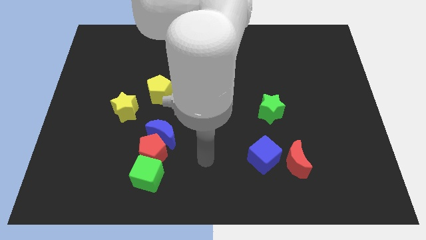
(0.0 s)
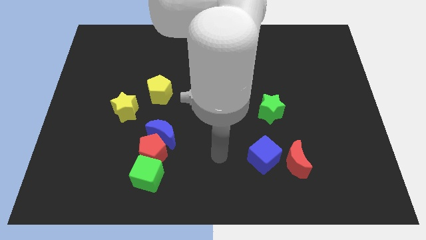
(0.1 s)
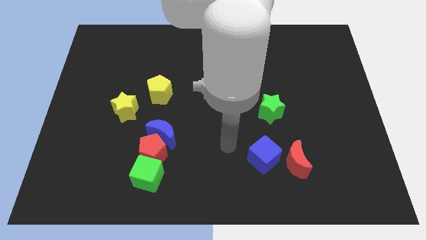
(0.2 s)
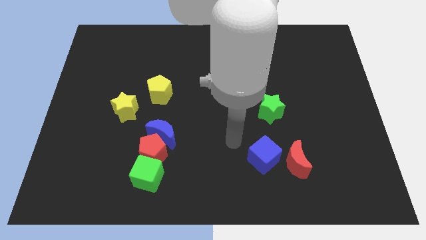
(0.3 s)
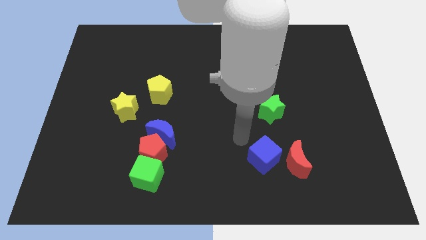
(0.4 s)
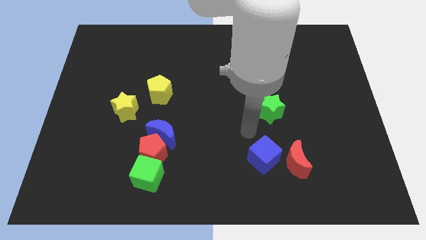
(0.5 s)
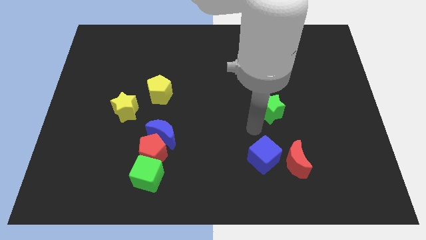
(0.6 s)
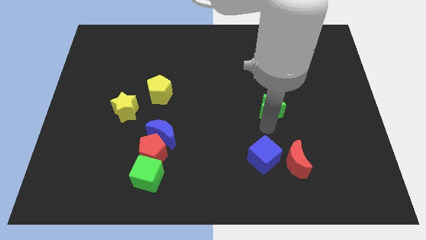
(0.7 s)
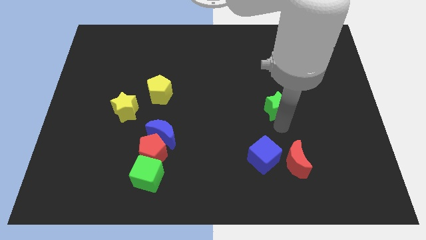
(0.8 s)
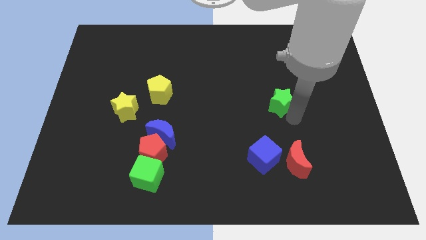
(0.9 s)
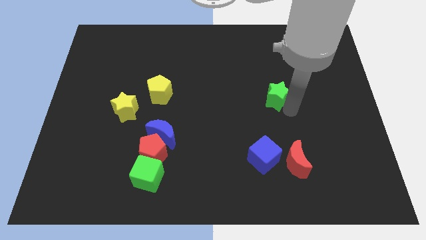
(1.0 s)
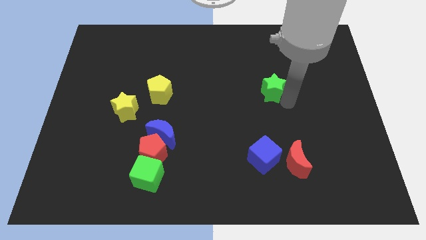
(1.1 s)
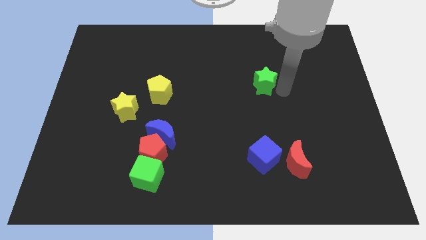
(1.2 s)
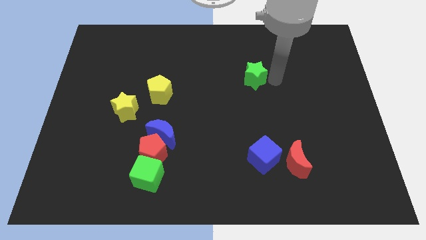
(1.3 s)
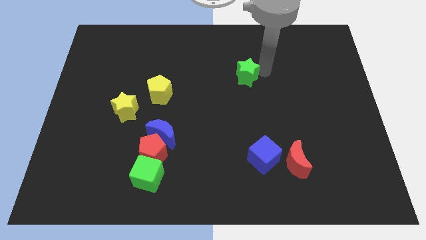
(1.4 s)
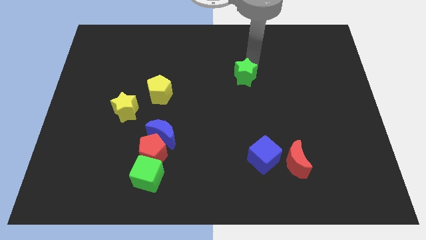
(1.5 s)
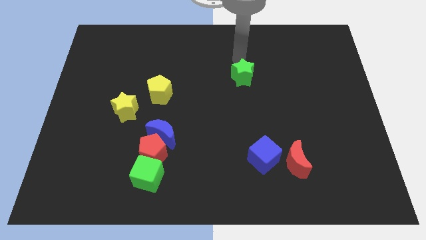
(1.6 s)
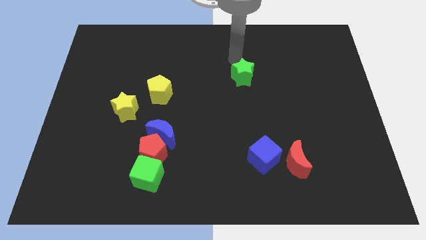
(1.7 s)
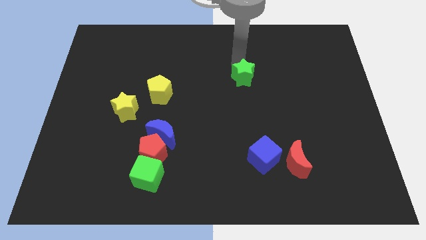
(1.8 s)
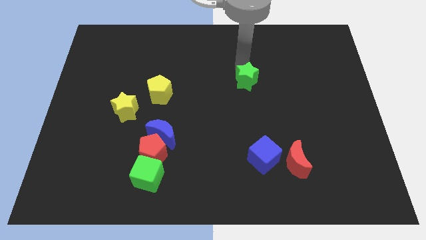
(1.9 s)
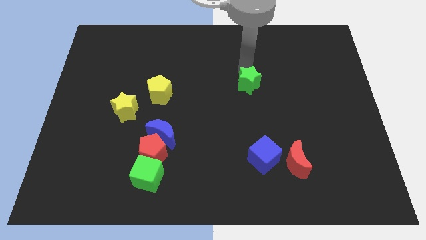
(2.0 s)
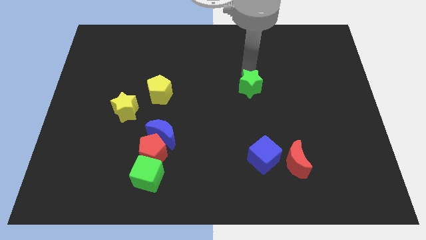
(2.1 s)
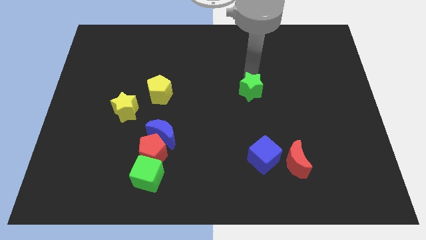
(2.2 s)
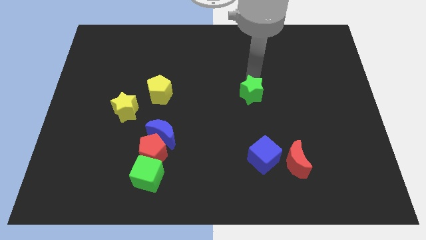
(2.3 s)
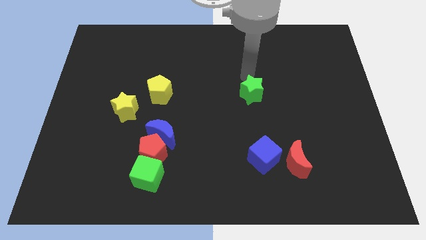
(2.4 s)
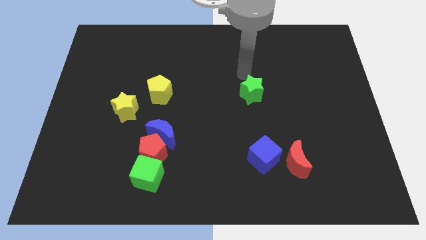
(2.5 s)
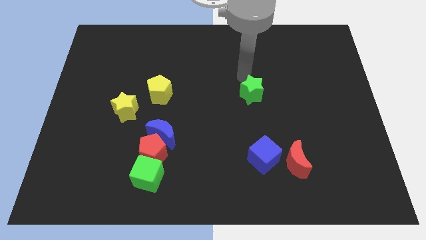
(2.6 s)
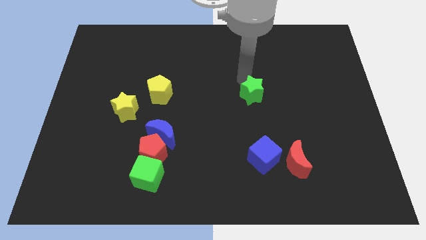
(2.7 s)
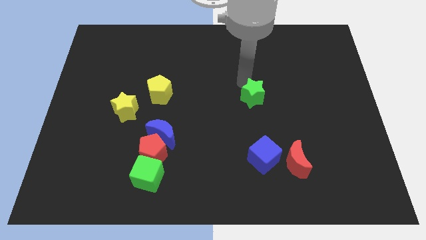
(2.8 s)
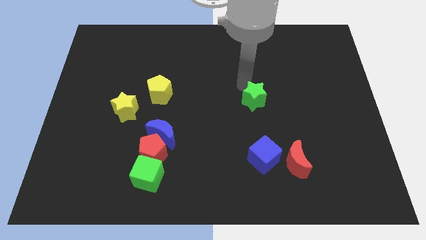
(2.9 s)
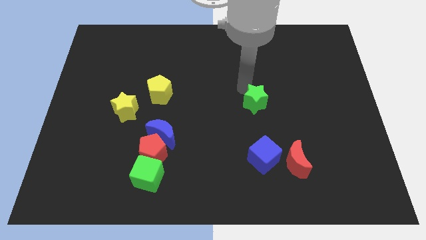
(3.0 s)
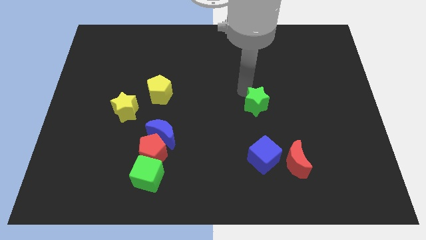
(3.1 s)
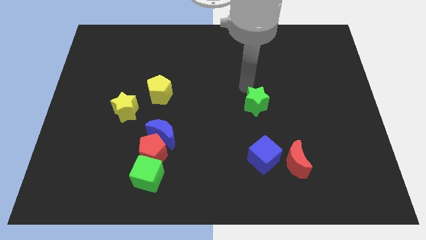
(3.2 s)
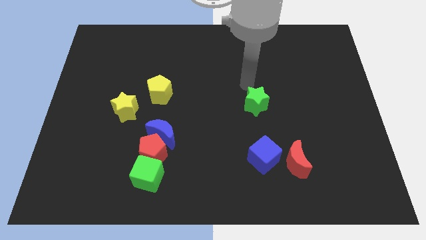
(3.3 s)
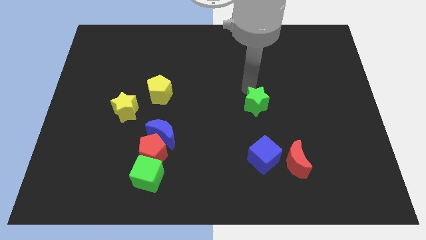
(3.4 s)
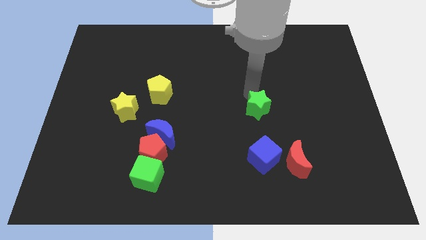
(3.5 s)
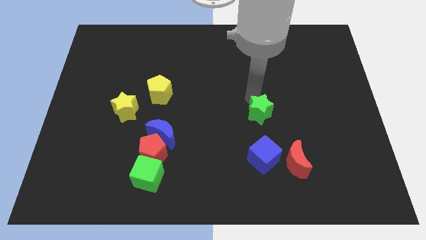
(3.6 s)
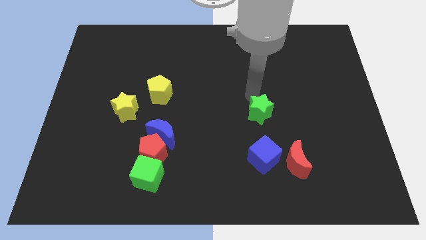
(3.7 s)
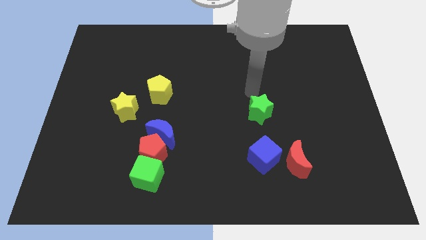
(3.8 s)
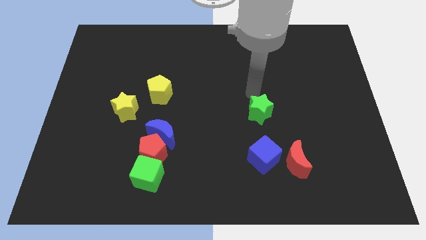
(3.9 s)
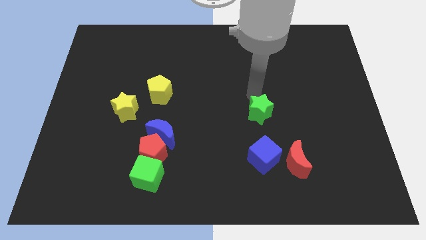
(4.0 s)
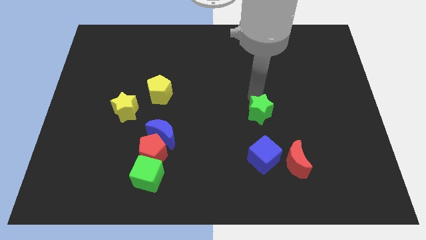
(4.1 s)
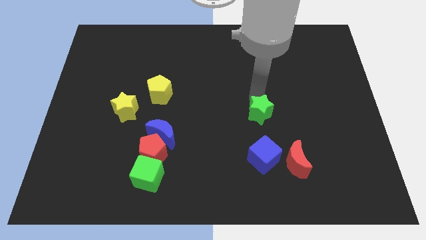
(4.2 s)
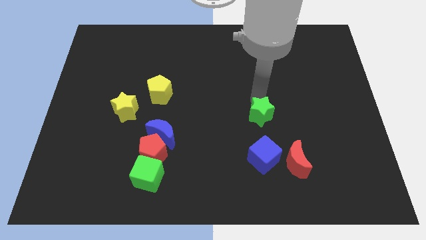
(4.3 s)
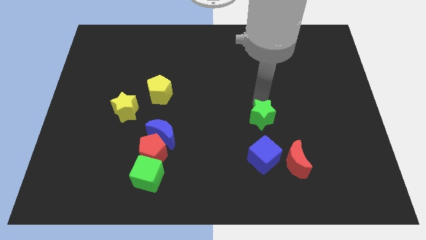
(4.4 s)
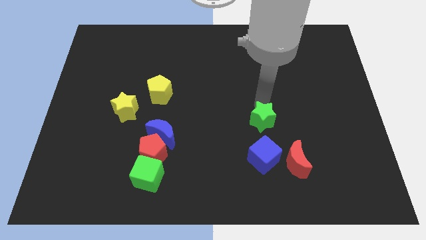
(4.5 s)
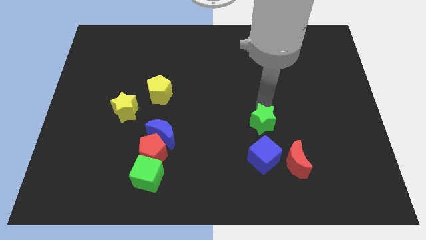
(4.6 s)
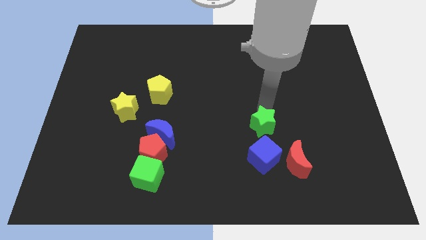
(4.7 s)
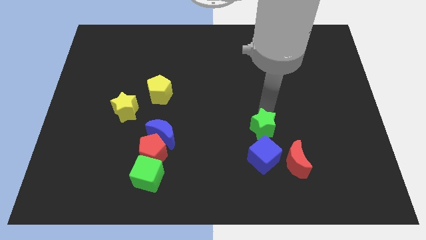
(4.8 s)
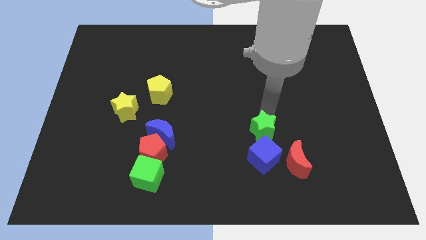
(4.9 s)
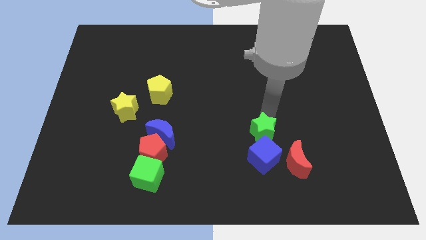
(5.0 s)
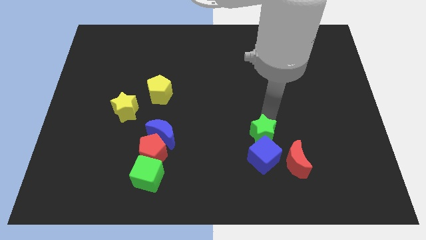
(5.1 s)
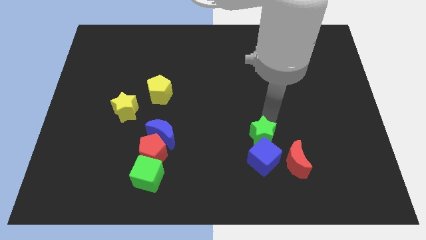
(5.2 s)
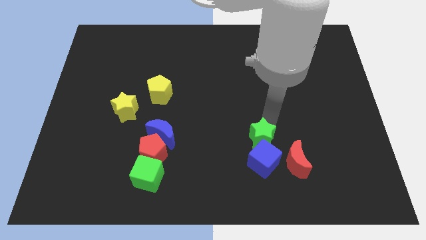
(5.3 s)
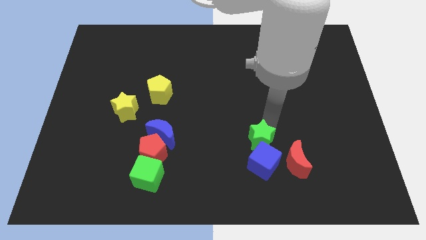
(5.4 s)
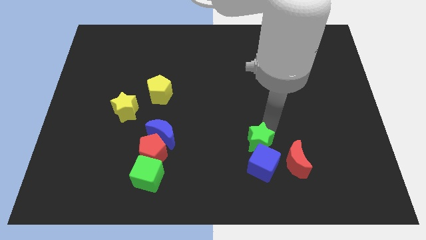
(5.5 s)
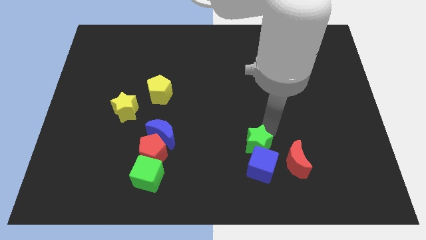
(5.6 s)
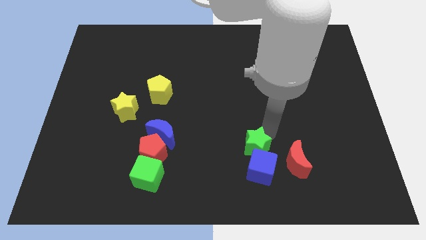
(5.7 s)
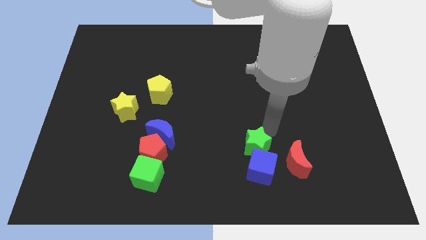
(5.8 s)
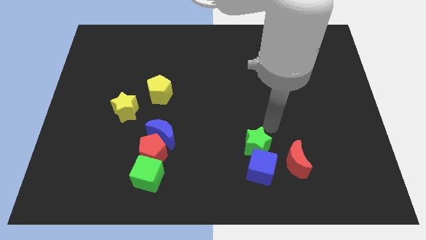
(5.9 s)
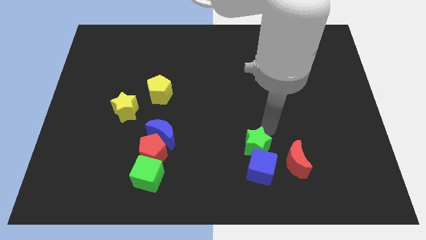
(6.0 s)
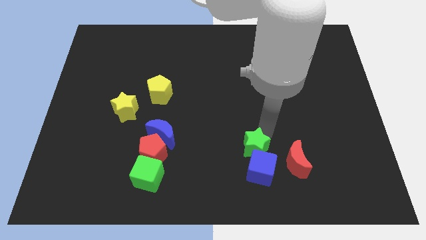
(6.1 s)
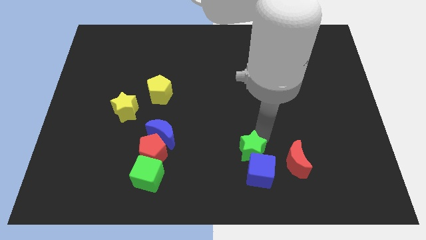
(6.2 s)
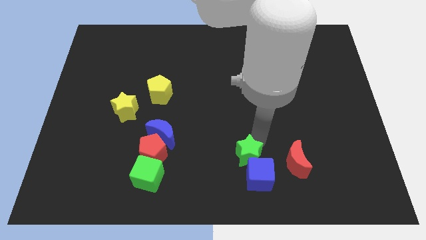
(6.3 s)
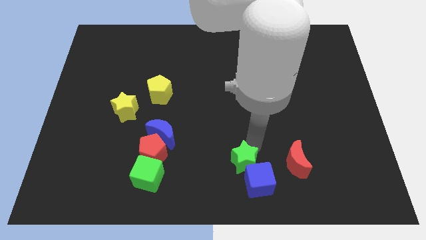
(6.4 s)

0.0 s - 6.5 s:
push the green star to the bottom side

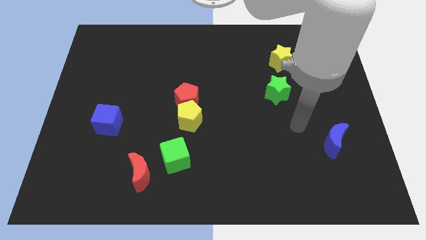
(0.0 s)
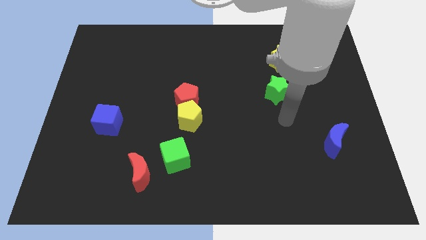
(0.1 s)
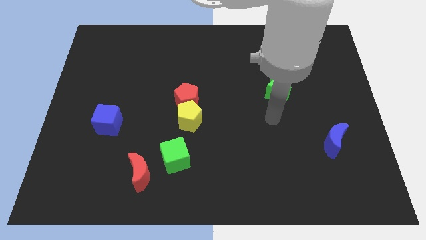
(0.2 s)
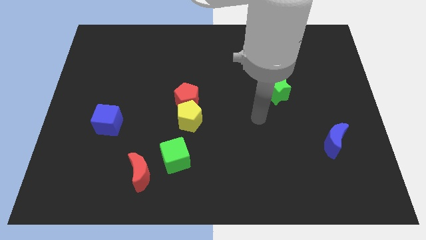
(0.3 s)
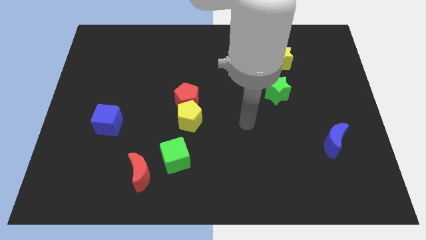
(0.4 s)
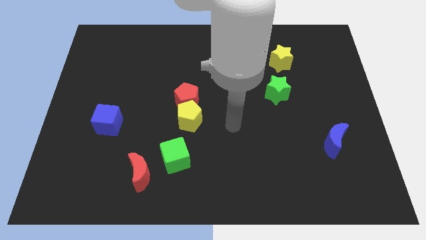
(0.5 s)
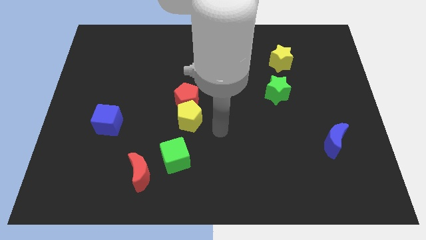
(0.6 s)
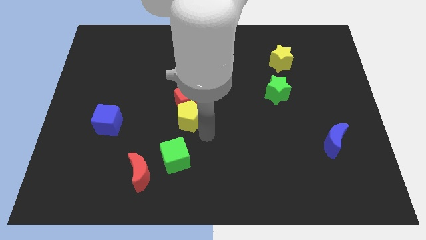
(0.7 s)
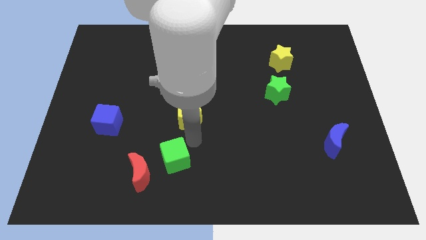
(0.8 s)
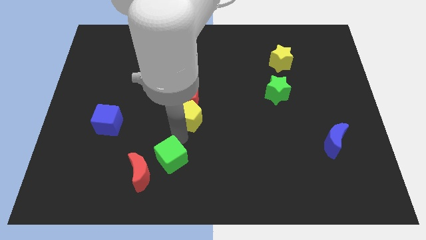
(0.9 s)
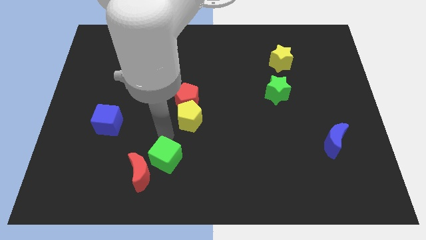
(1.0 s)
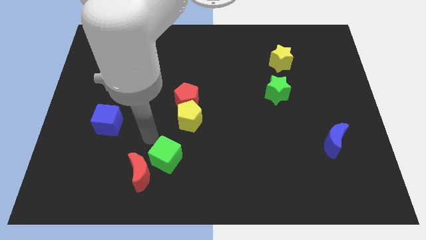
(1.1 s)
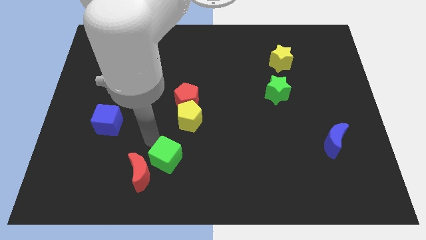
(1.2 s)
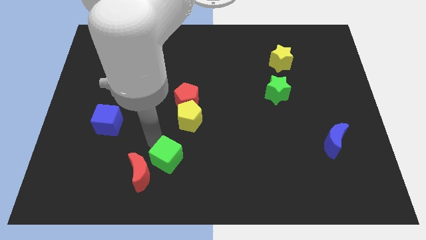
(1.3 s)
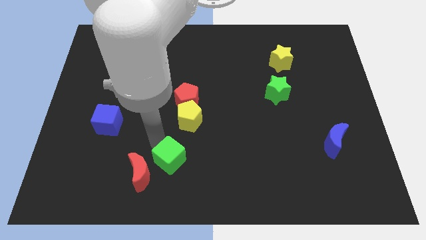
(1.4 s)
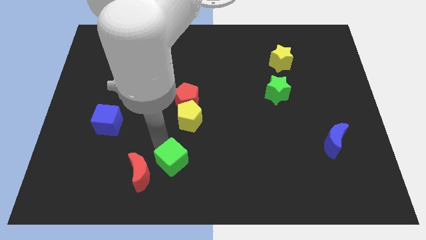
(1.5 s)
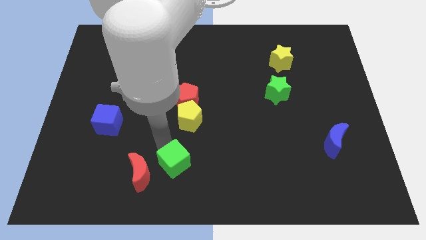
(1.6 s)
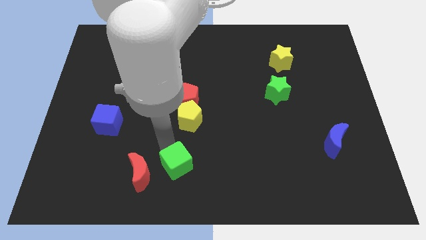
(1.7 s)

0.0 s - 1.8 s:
put the green cube to the bottom side

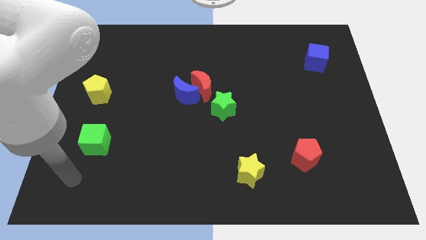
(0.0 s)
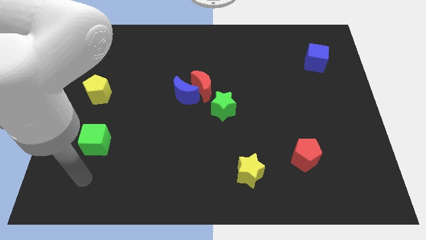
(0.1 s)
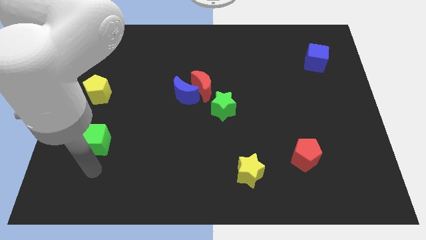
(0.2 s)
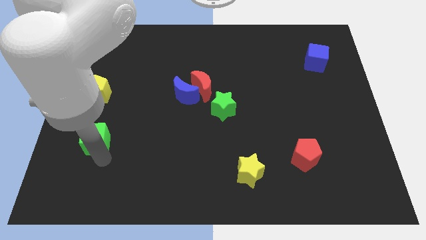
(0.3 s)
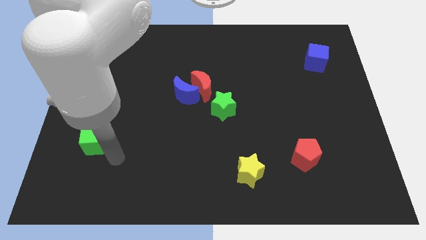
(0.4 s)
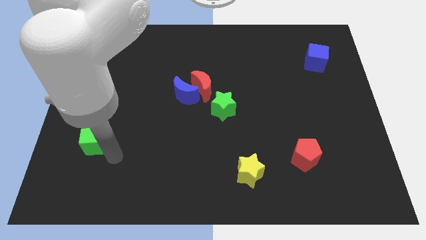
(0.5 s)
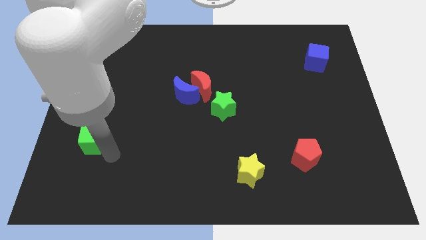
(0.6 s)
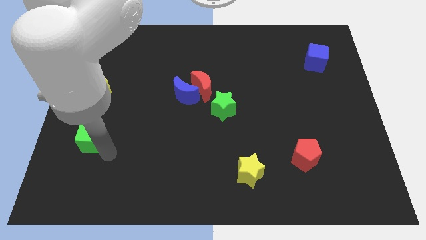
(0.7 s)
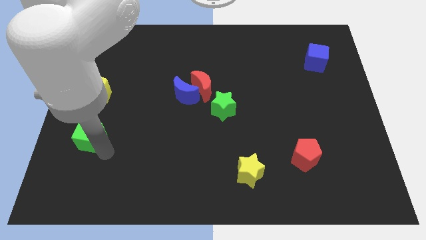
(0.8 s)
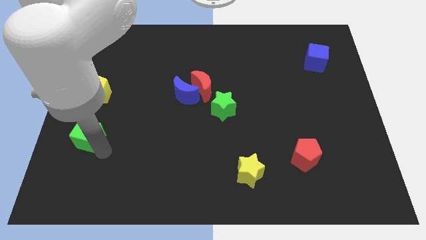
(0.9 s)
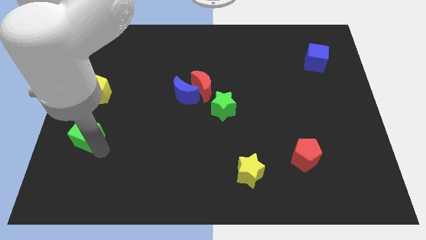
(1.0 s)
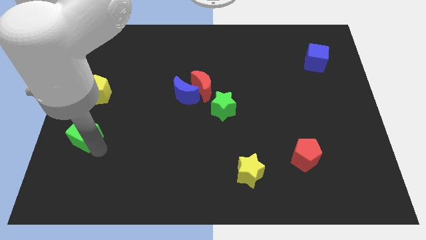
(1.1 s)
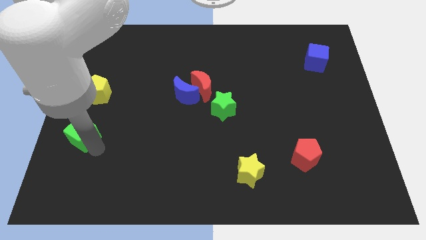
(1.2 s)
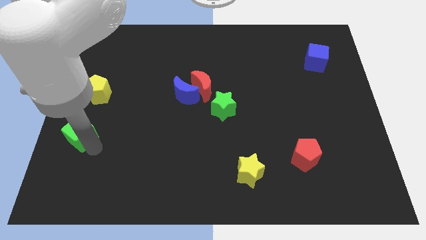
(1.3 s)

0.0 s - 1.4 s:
push the green cube to the left side
